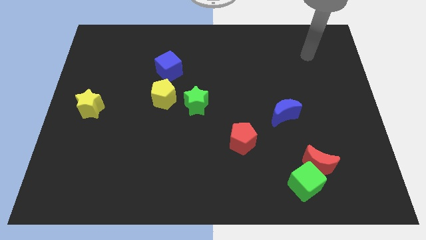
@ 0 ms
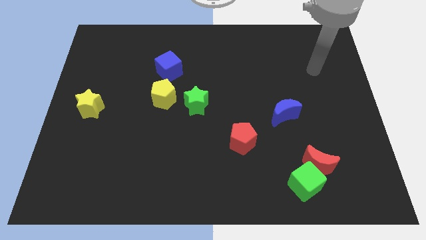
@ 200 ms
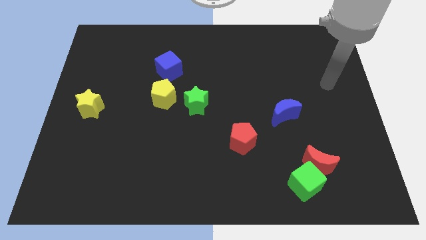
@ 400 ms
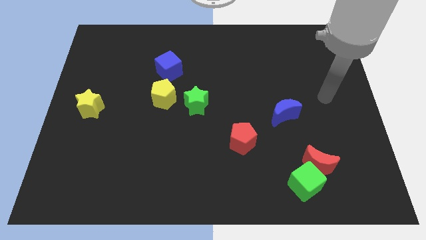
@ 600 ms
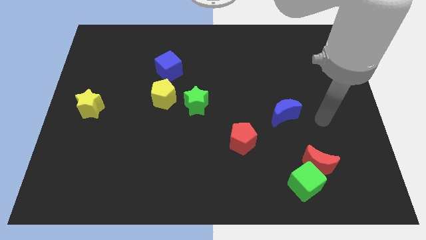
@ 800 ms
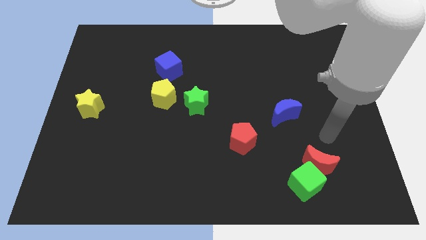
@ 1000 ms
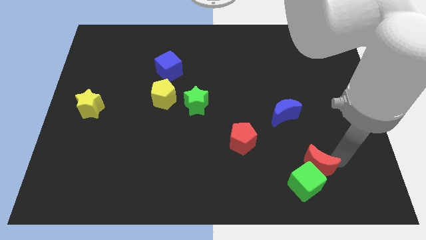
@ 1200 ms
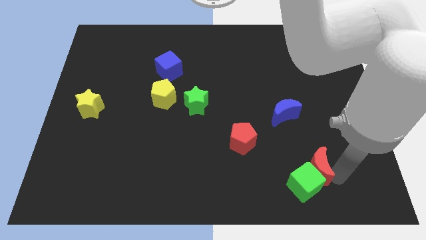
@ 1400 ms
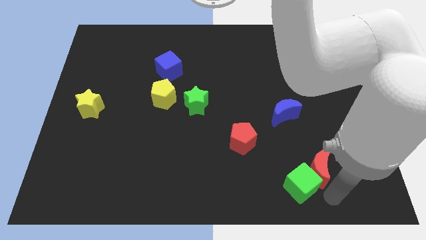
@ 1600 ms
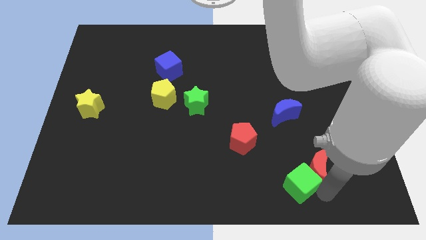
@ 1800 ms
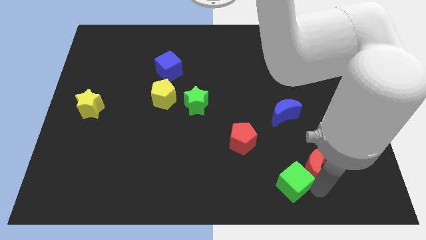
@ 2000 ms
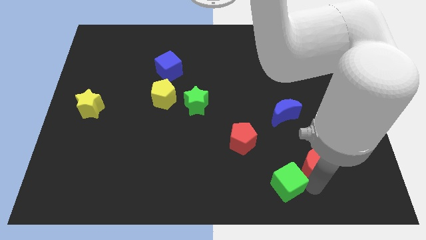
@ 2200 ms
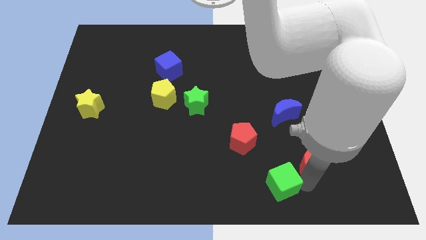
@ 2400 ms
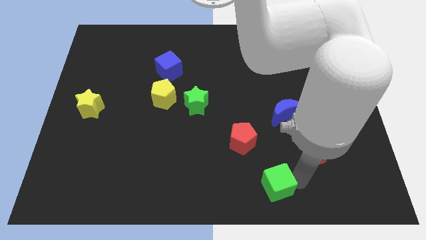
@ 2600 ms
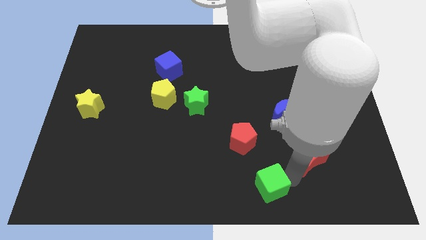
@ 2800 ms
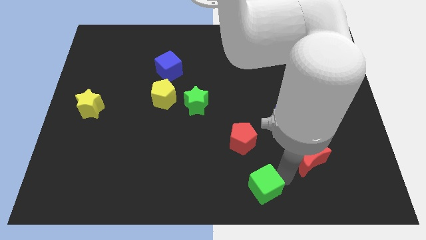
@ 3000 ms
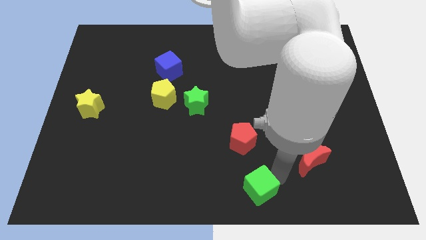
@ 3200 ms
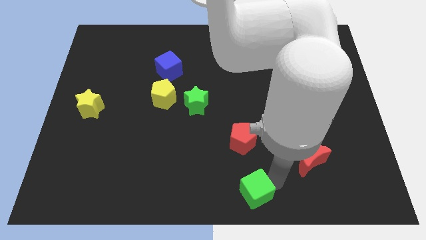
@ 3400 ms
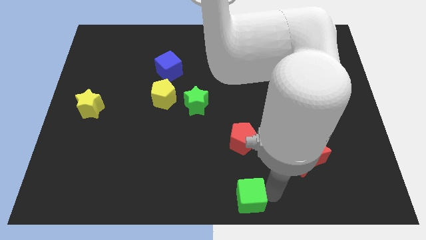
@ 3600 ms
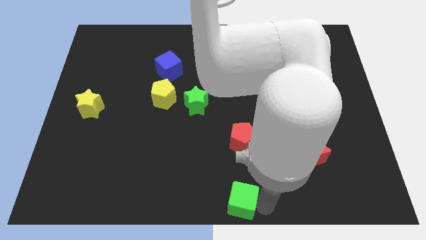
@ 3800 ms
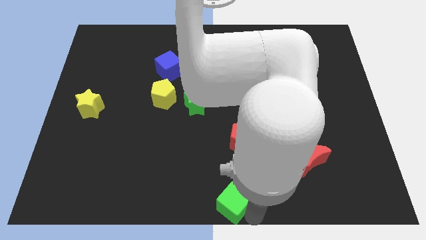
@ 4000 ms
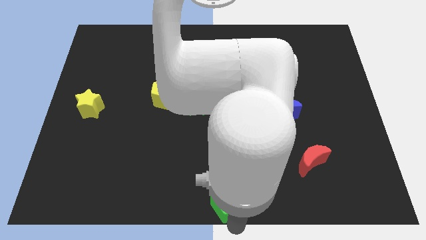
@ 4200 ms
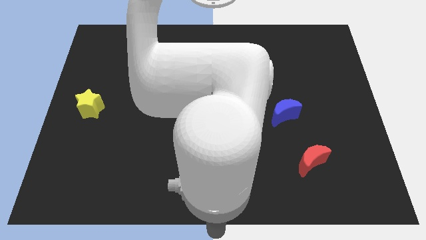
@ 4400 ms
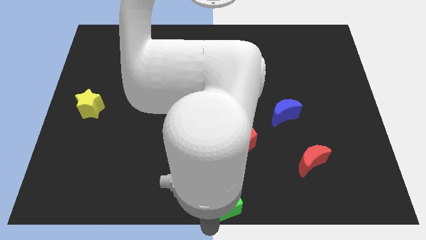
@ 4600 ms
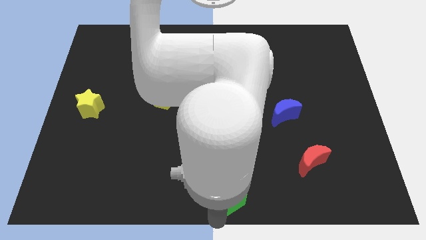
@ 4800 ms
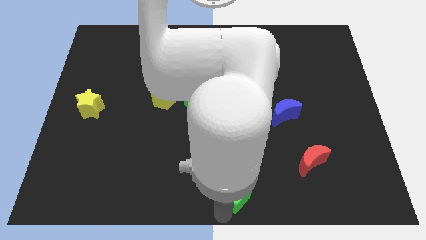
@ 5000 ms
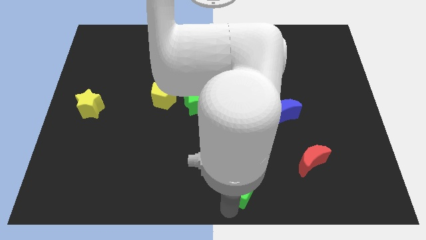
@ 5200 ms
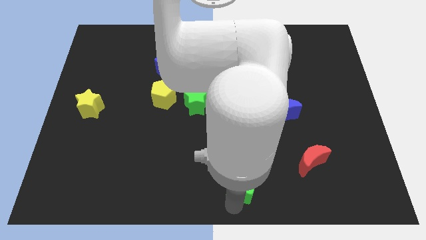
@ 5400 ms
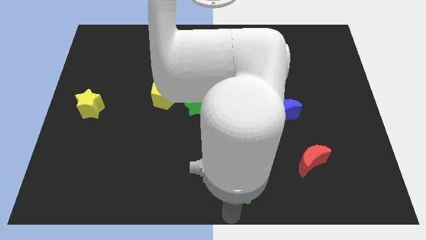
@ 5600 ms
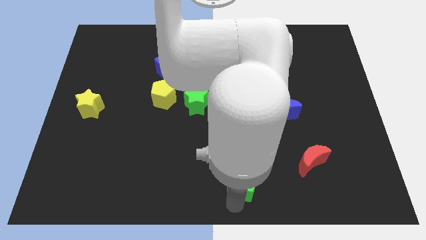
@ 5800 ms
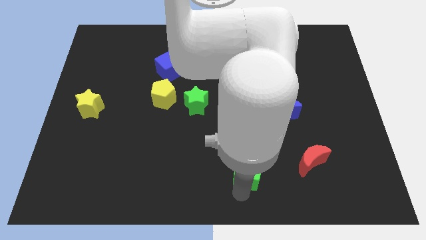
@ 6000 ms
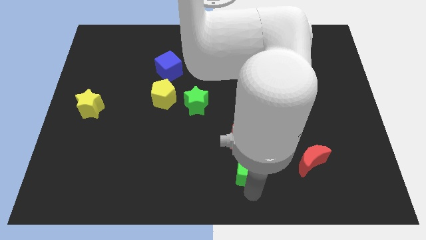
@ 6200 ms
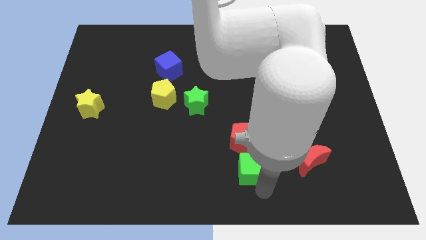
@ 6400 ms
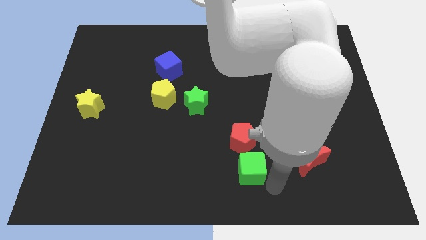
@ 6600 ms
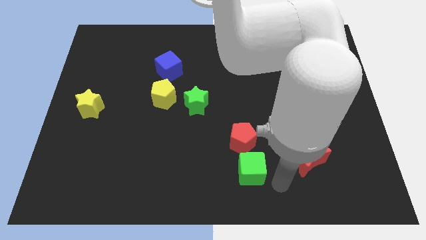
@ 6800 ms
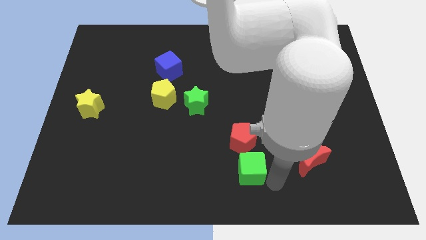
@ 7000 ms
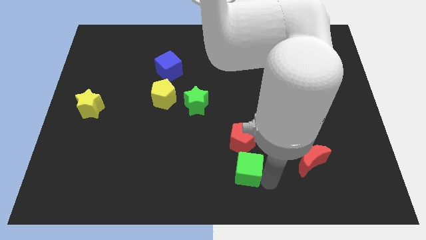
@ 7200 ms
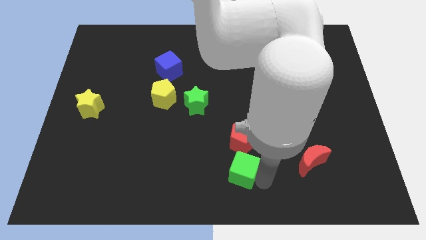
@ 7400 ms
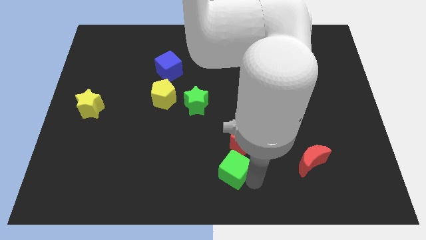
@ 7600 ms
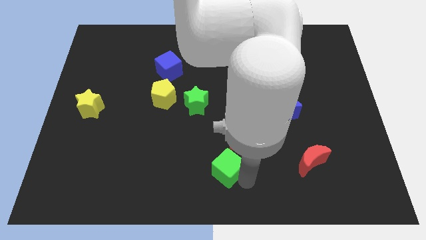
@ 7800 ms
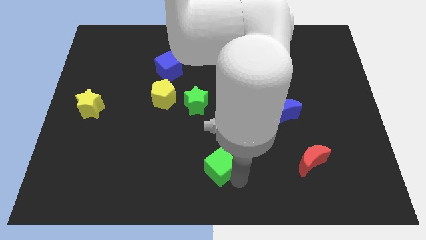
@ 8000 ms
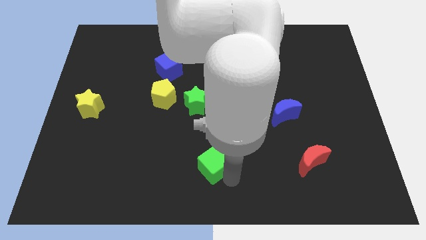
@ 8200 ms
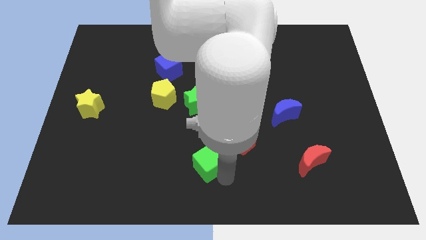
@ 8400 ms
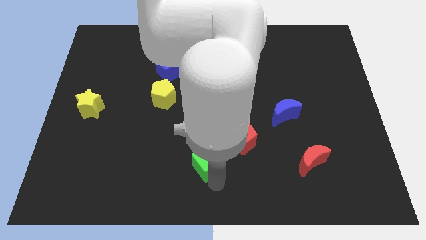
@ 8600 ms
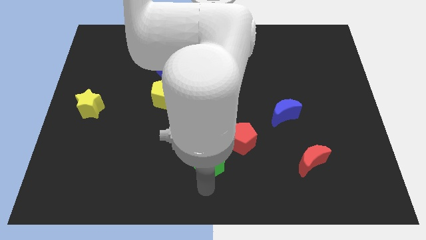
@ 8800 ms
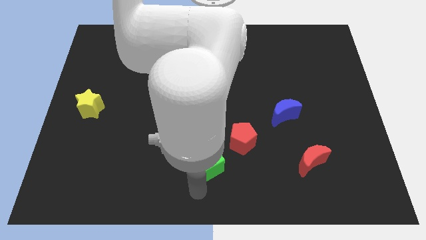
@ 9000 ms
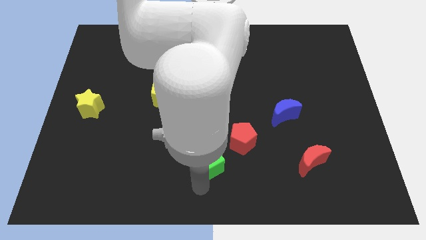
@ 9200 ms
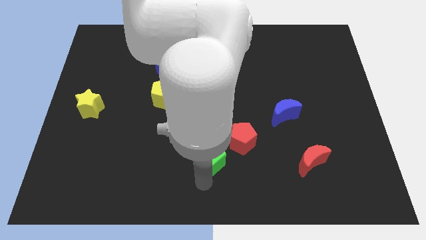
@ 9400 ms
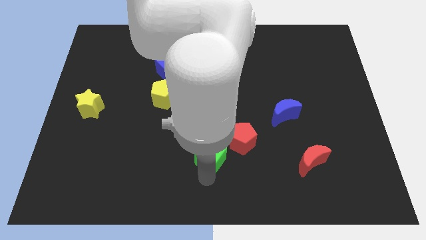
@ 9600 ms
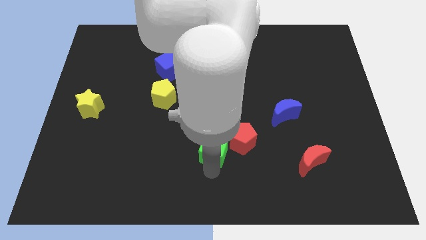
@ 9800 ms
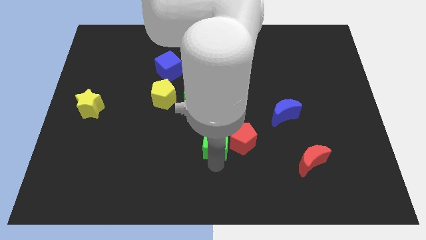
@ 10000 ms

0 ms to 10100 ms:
move the green cube diagonally up and to the left of the red pentagon

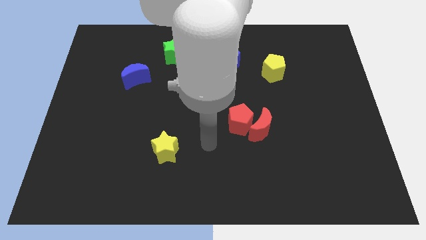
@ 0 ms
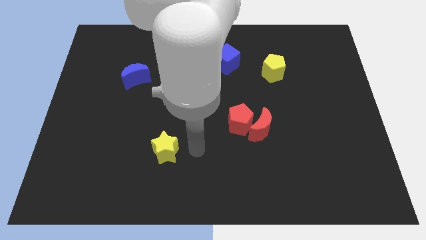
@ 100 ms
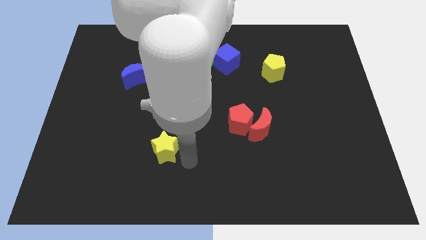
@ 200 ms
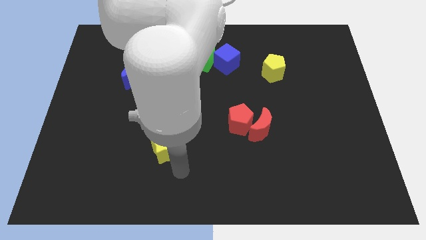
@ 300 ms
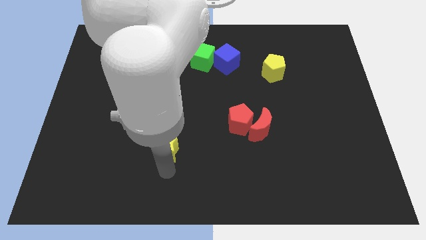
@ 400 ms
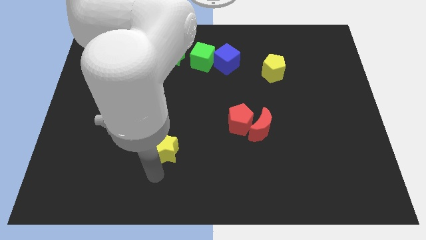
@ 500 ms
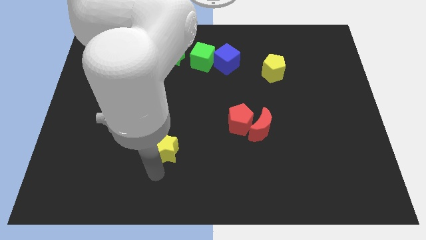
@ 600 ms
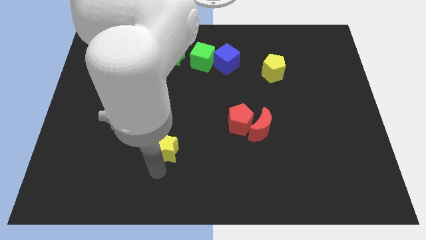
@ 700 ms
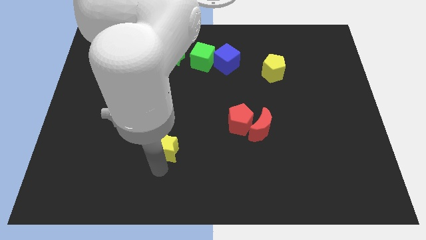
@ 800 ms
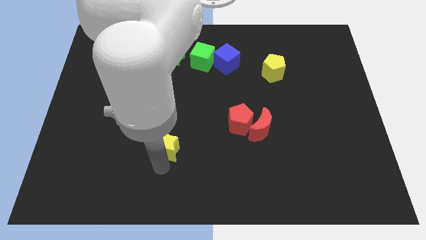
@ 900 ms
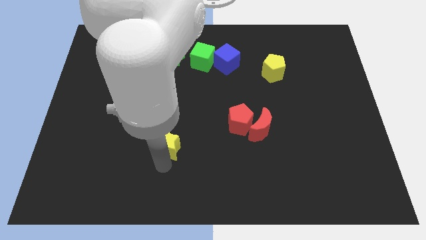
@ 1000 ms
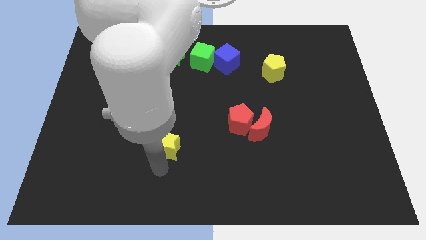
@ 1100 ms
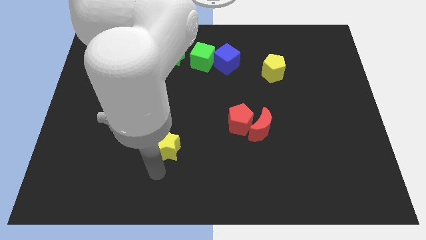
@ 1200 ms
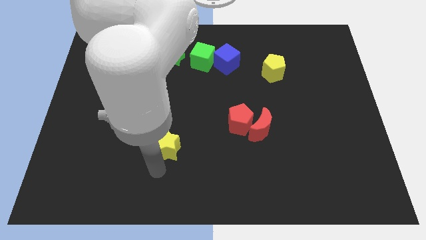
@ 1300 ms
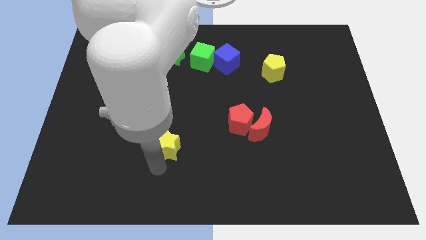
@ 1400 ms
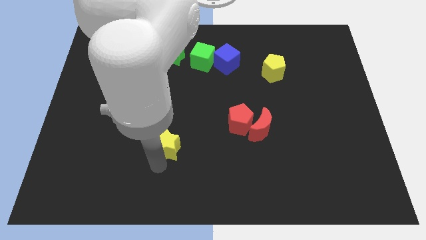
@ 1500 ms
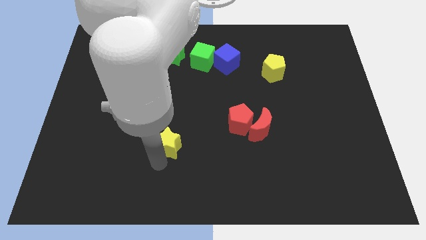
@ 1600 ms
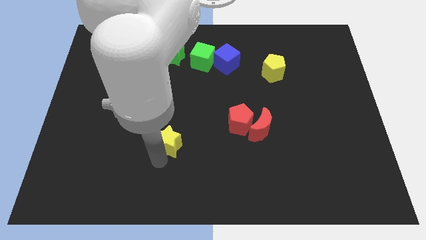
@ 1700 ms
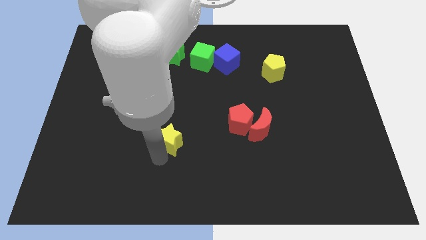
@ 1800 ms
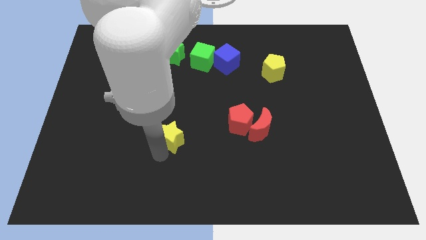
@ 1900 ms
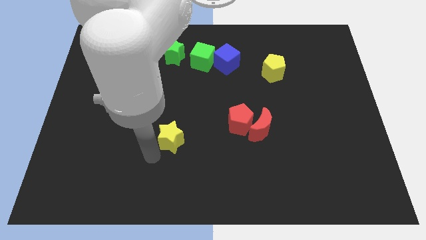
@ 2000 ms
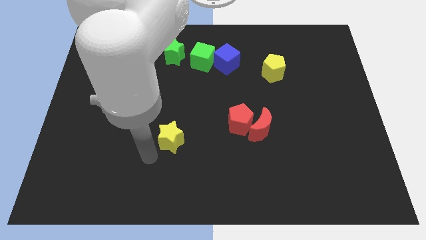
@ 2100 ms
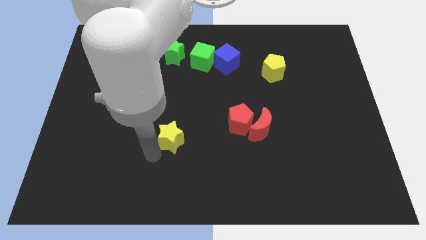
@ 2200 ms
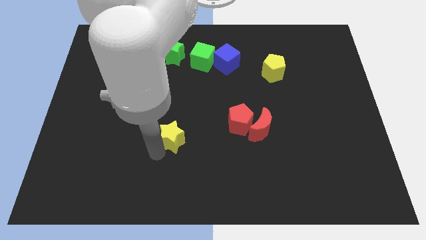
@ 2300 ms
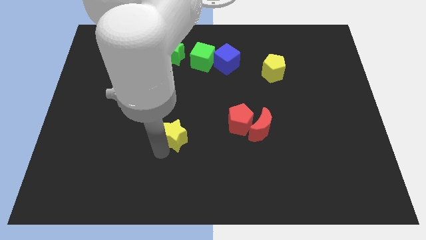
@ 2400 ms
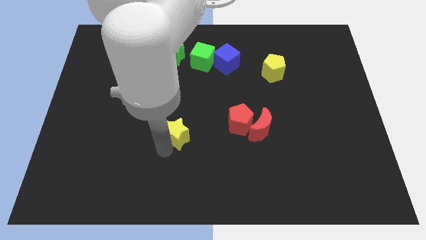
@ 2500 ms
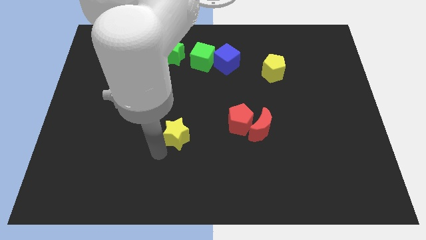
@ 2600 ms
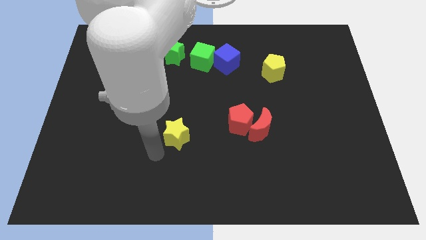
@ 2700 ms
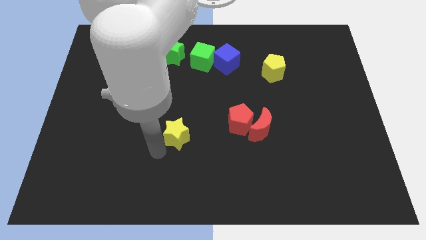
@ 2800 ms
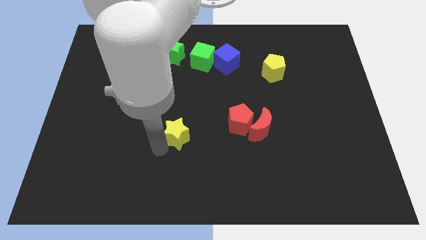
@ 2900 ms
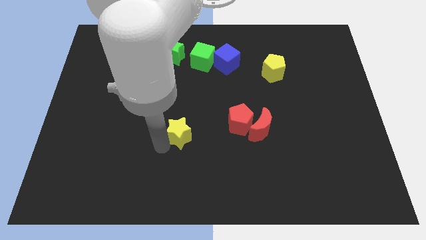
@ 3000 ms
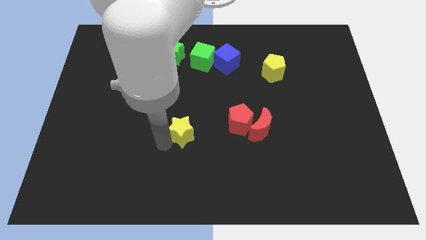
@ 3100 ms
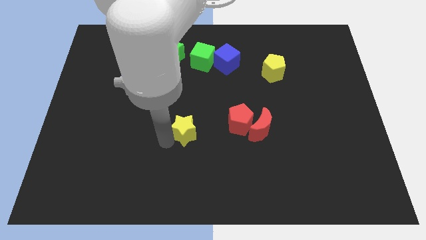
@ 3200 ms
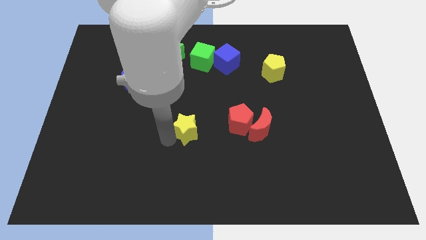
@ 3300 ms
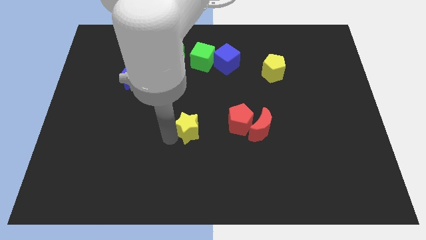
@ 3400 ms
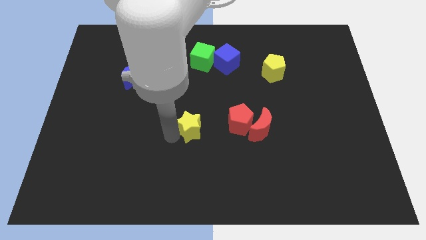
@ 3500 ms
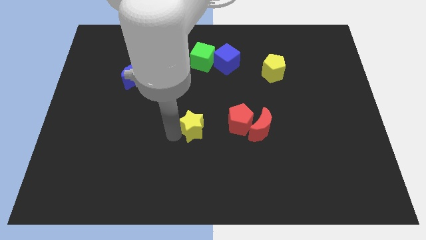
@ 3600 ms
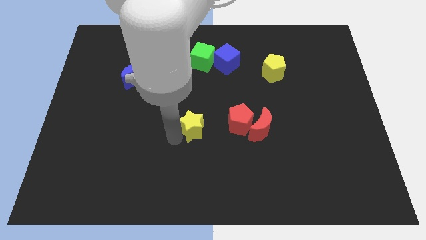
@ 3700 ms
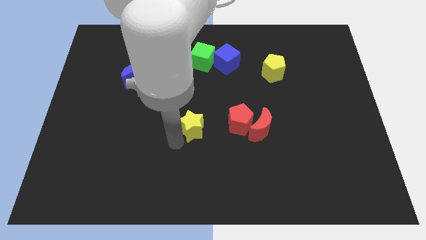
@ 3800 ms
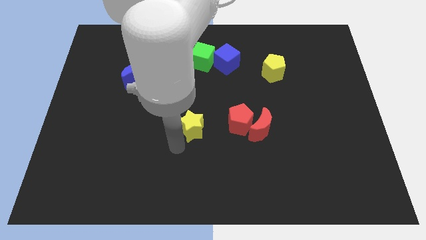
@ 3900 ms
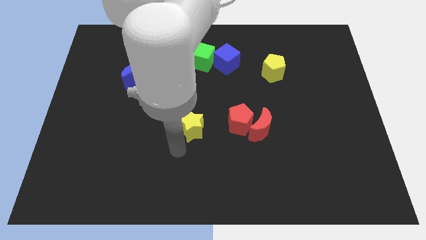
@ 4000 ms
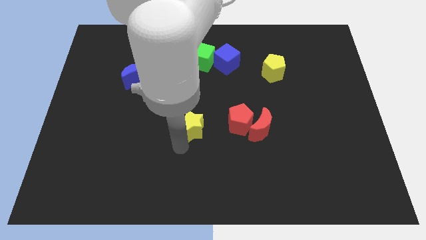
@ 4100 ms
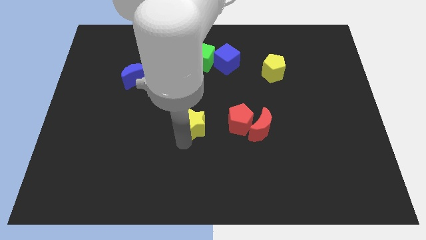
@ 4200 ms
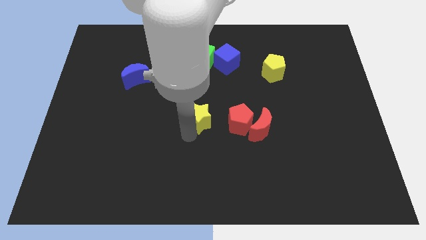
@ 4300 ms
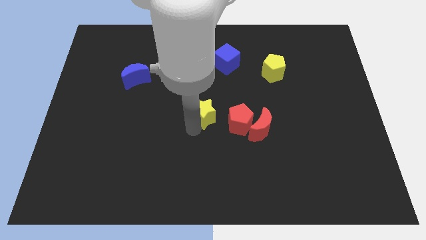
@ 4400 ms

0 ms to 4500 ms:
slide the yellow star to the top left of the red pentagon
